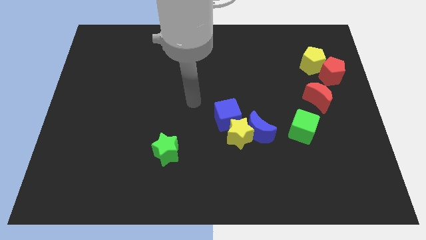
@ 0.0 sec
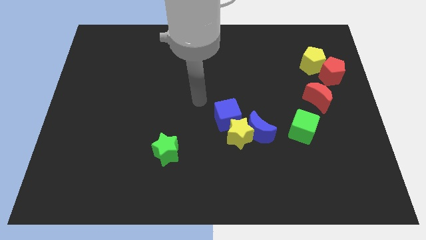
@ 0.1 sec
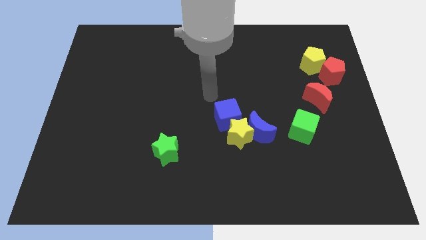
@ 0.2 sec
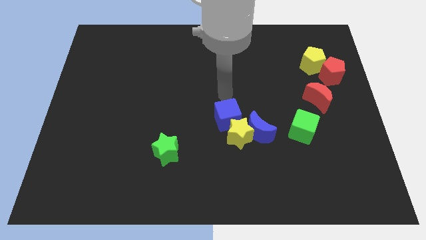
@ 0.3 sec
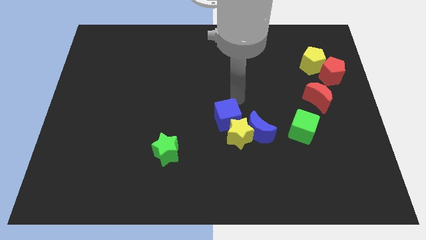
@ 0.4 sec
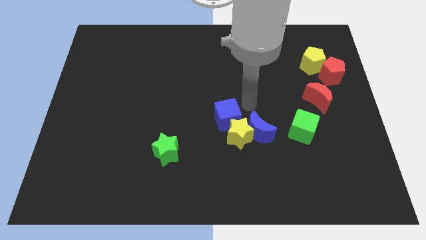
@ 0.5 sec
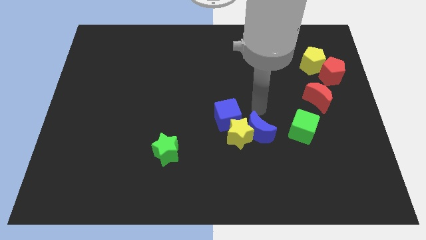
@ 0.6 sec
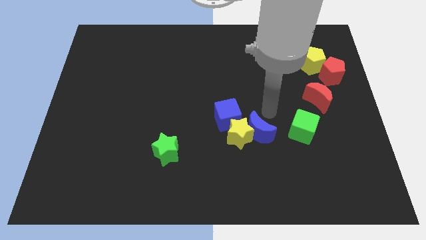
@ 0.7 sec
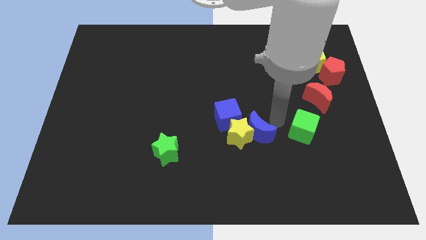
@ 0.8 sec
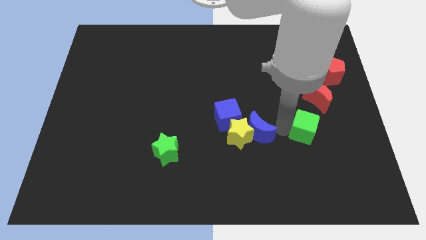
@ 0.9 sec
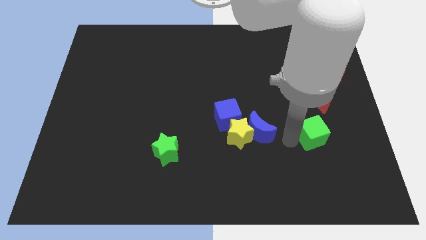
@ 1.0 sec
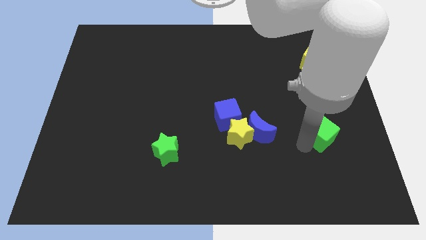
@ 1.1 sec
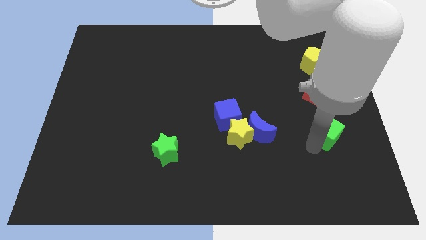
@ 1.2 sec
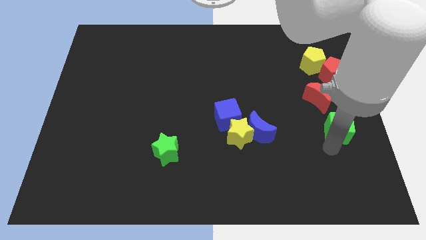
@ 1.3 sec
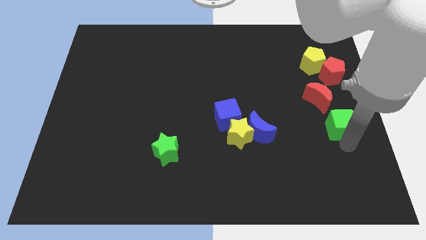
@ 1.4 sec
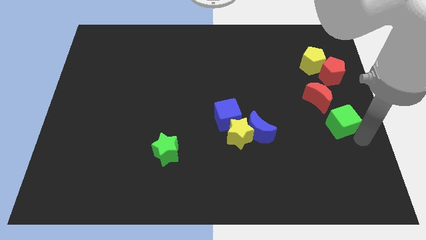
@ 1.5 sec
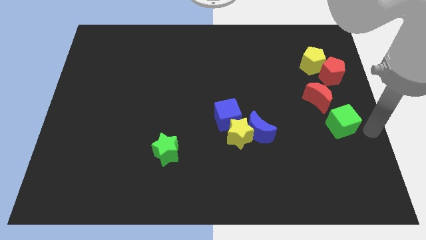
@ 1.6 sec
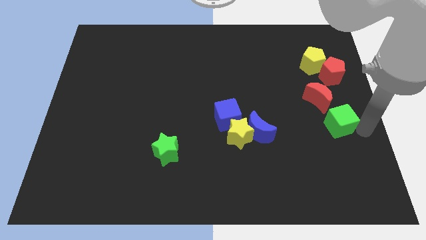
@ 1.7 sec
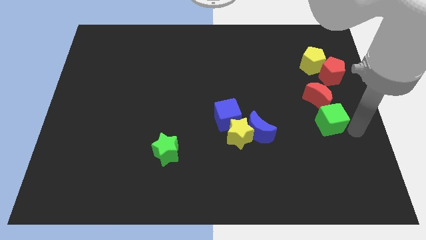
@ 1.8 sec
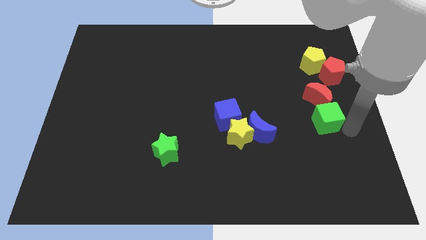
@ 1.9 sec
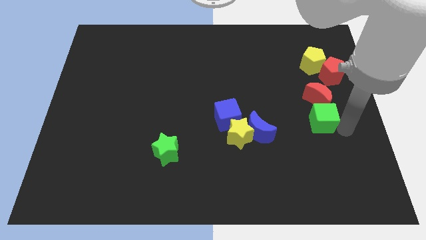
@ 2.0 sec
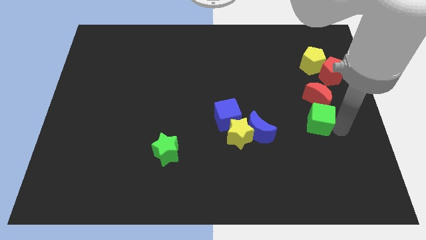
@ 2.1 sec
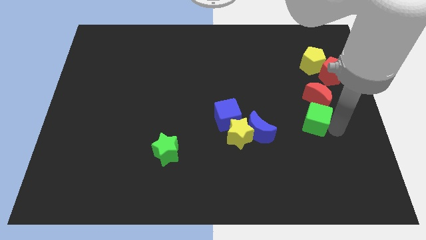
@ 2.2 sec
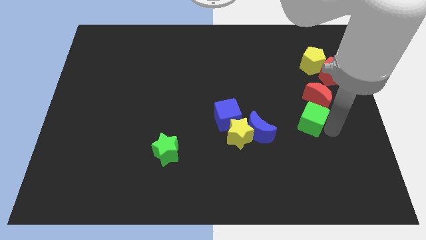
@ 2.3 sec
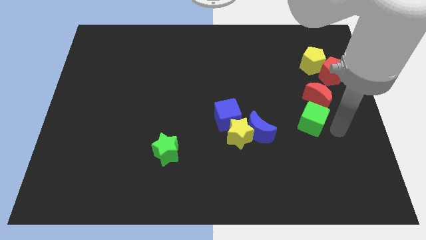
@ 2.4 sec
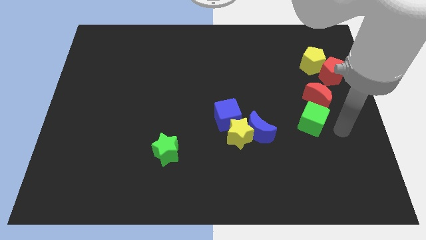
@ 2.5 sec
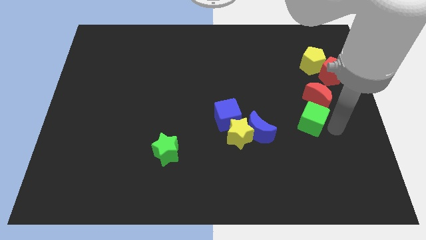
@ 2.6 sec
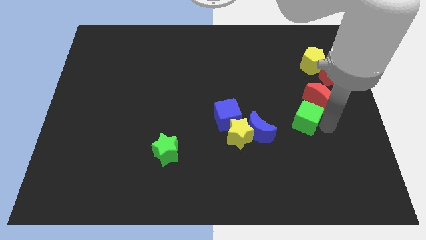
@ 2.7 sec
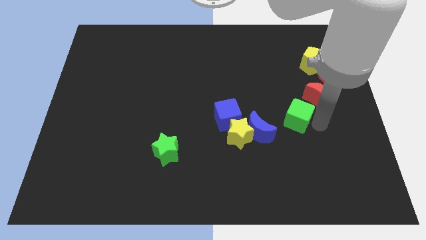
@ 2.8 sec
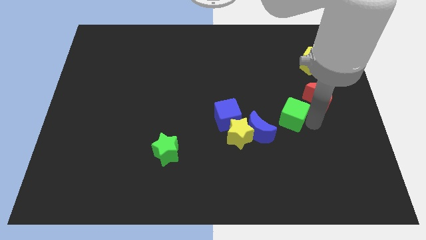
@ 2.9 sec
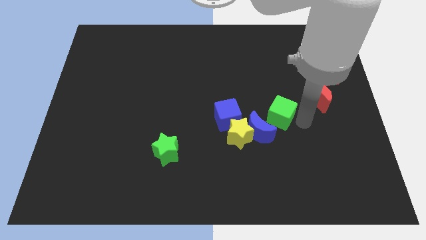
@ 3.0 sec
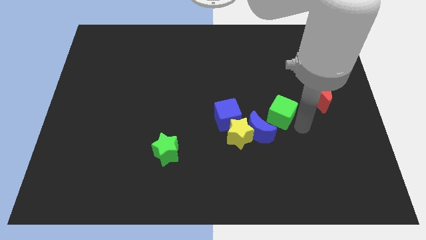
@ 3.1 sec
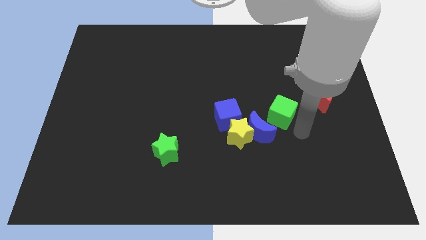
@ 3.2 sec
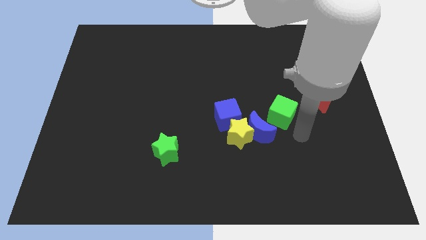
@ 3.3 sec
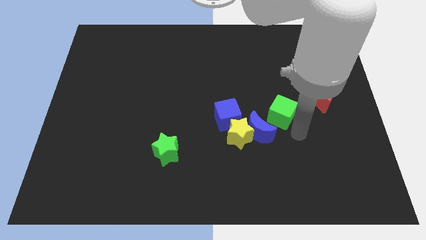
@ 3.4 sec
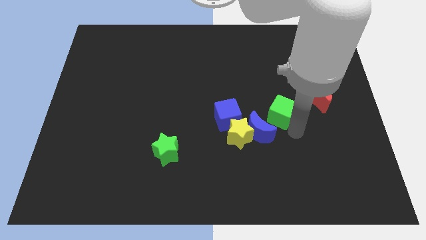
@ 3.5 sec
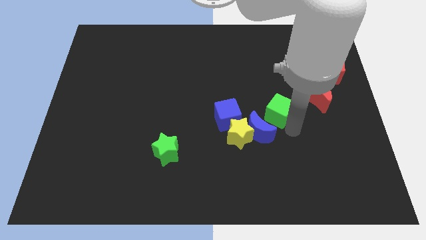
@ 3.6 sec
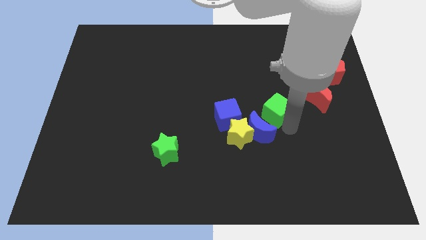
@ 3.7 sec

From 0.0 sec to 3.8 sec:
move the green cube up and then left a little
